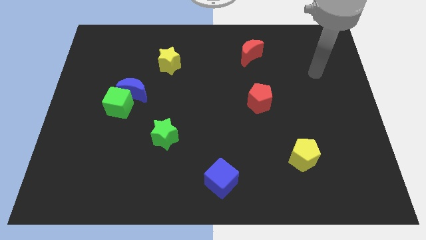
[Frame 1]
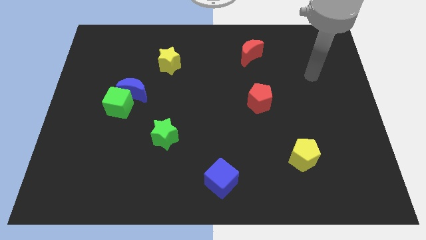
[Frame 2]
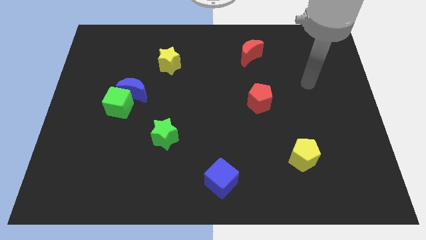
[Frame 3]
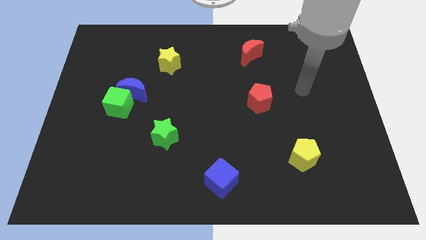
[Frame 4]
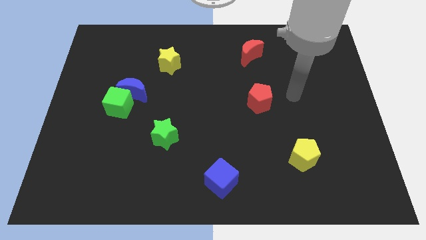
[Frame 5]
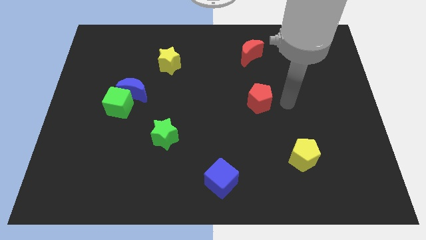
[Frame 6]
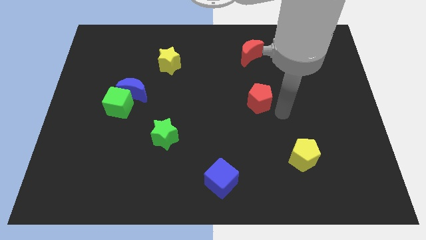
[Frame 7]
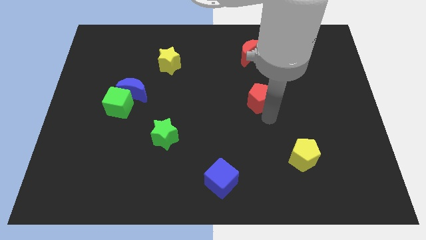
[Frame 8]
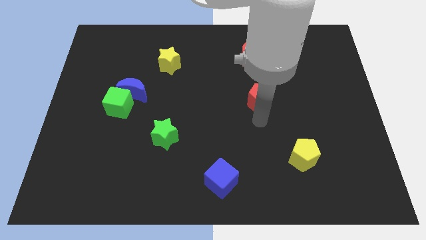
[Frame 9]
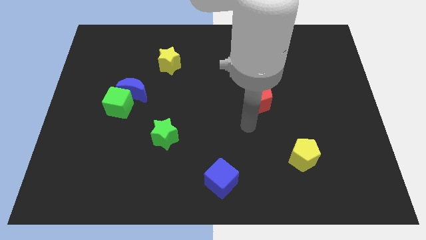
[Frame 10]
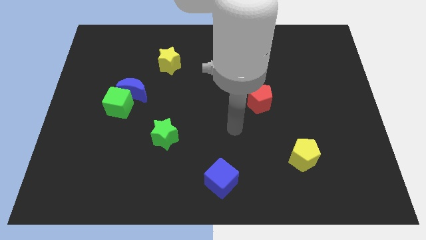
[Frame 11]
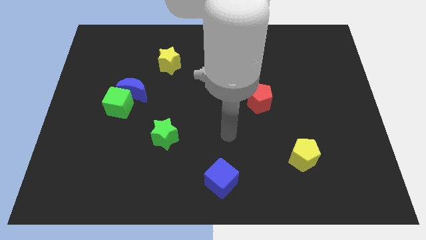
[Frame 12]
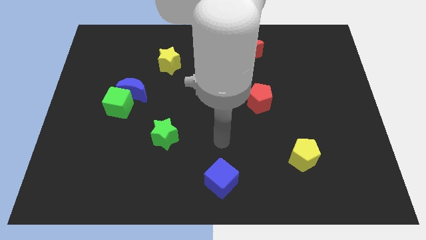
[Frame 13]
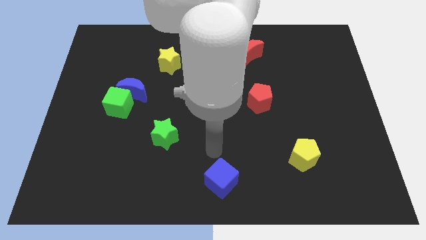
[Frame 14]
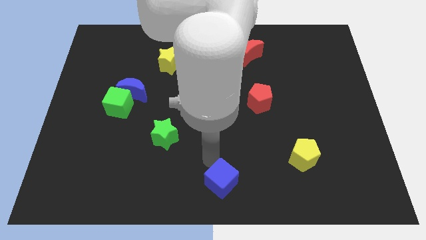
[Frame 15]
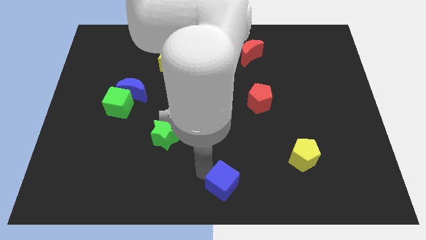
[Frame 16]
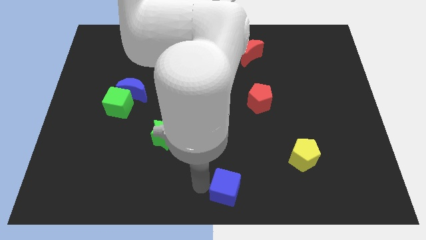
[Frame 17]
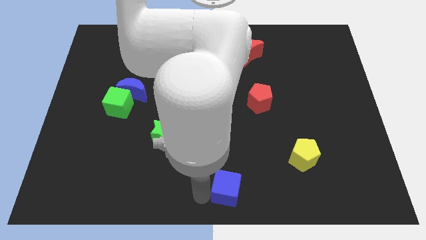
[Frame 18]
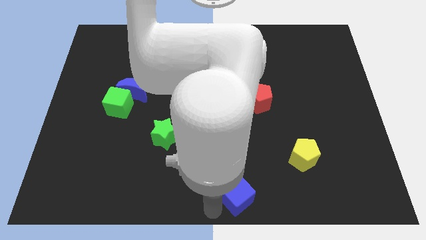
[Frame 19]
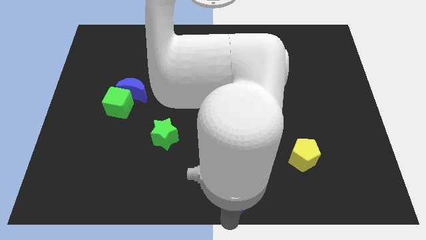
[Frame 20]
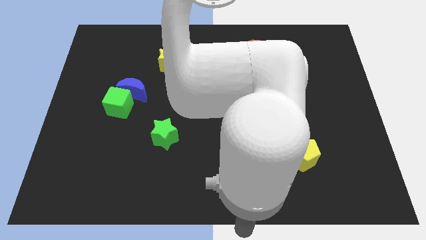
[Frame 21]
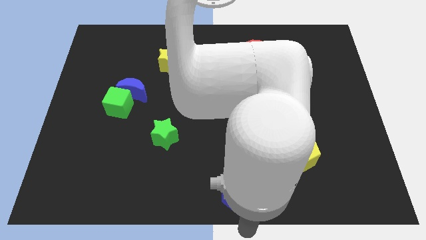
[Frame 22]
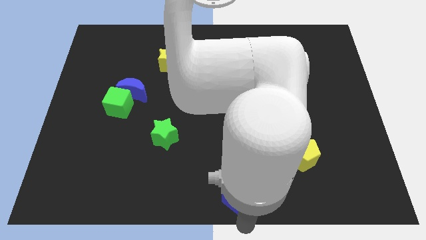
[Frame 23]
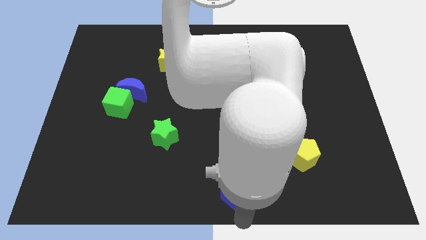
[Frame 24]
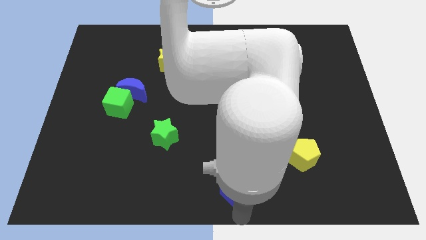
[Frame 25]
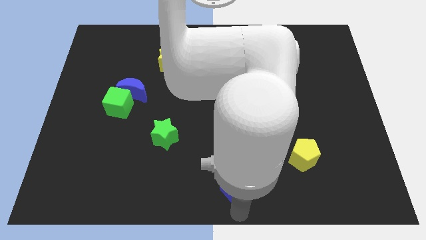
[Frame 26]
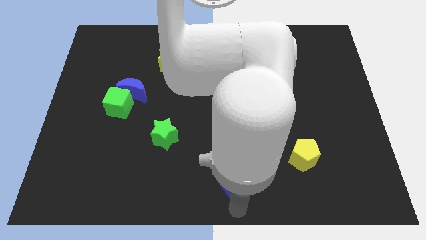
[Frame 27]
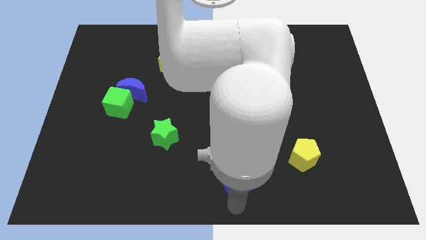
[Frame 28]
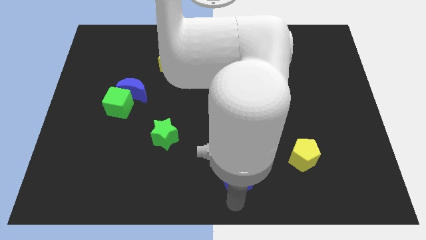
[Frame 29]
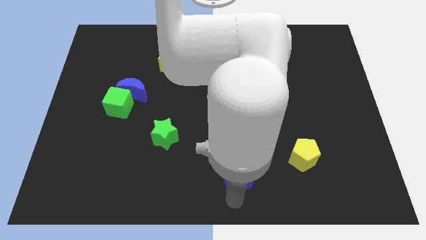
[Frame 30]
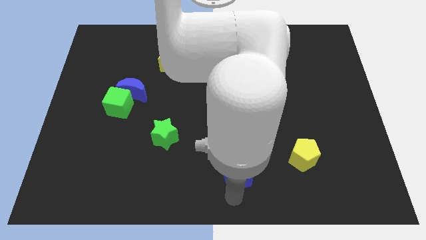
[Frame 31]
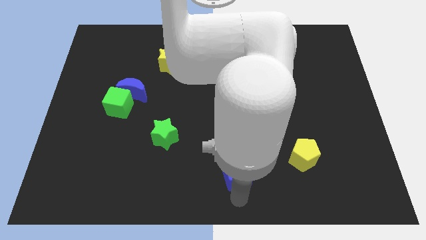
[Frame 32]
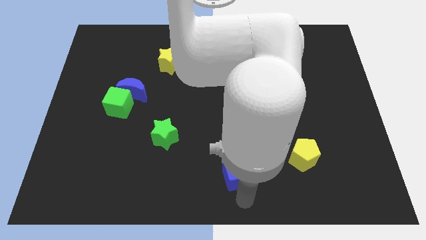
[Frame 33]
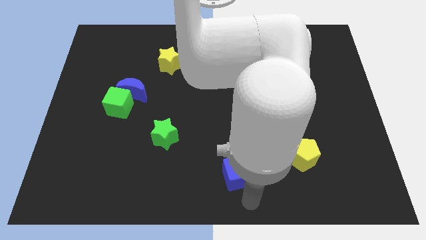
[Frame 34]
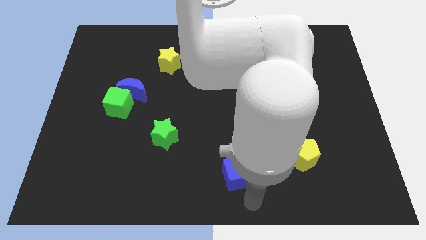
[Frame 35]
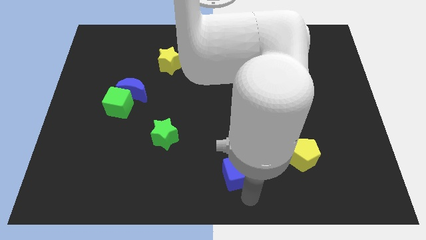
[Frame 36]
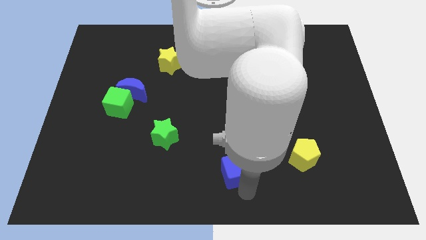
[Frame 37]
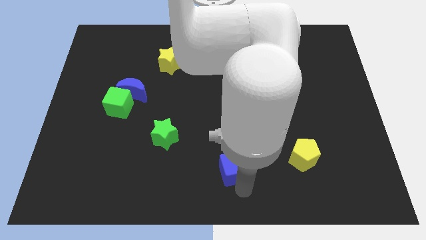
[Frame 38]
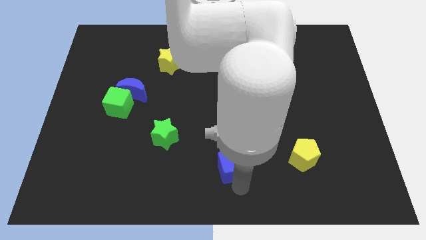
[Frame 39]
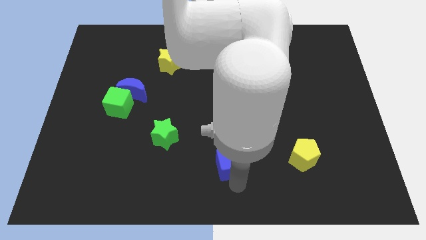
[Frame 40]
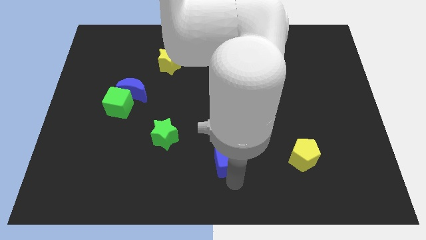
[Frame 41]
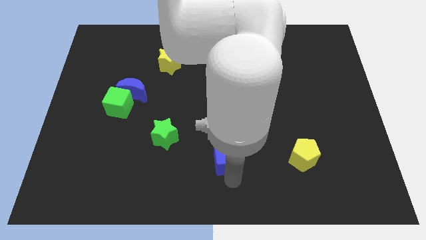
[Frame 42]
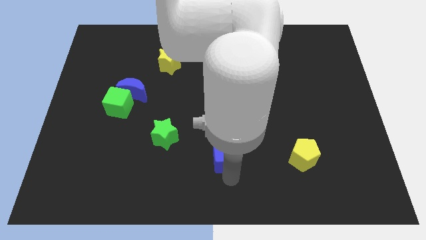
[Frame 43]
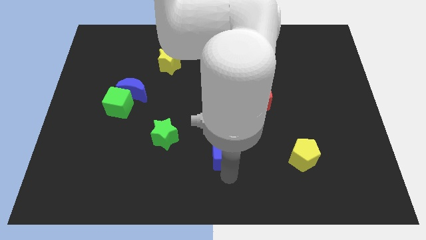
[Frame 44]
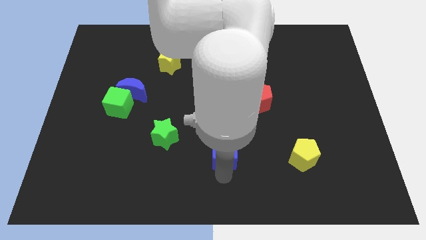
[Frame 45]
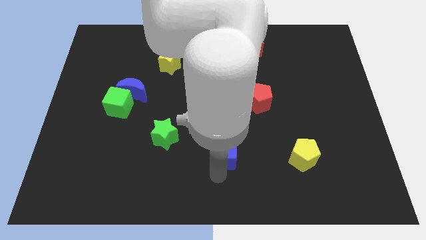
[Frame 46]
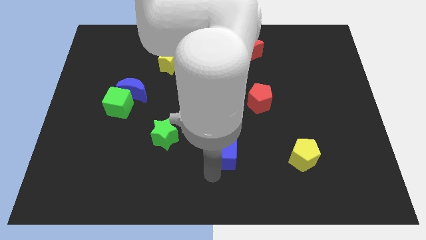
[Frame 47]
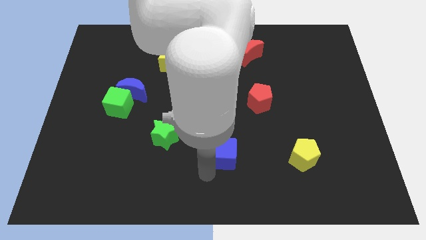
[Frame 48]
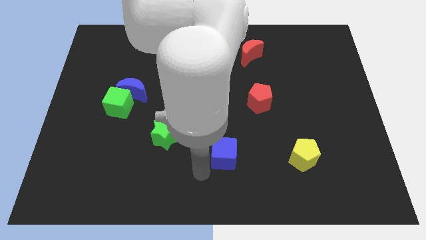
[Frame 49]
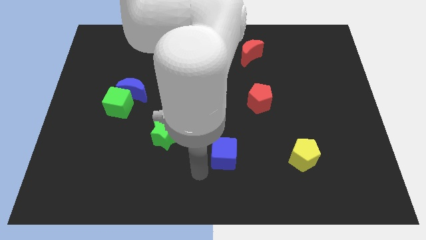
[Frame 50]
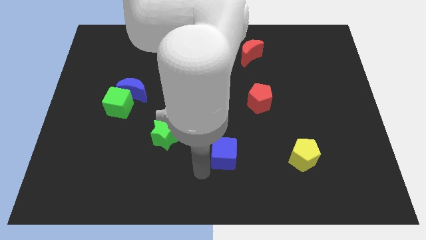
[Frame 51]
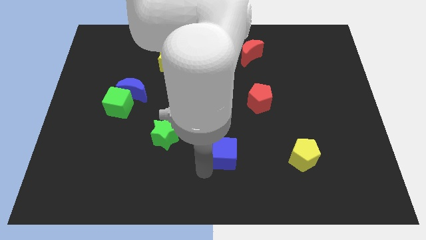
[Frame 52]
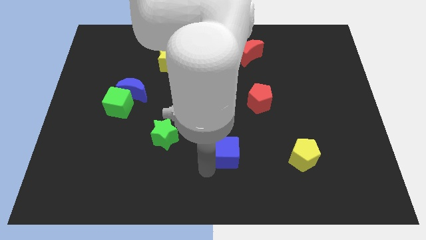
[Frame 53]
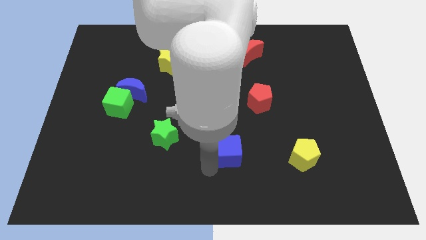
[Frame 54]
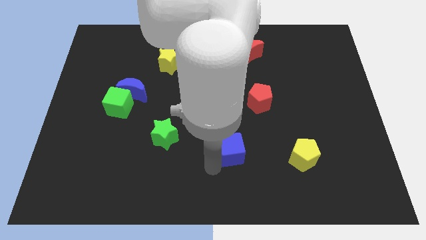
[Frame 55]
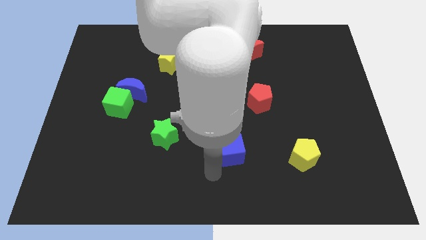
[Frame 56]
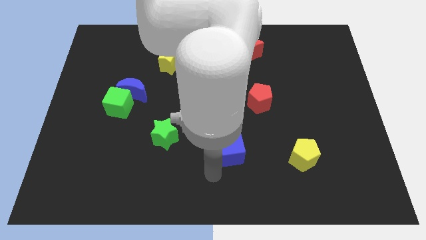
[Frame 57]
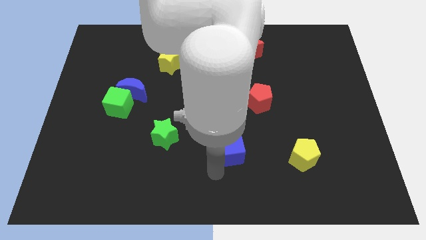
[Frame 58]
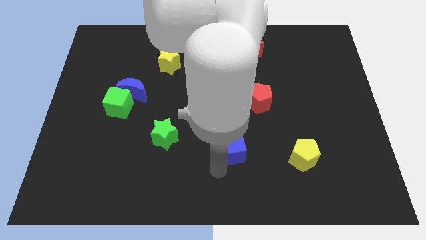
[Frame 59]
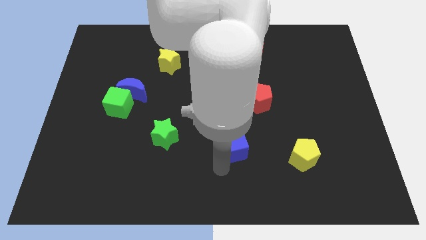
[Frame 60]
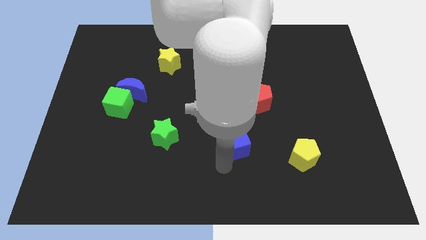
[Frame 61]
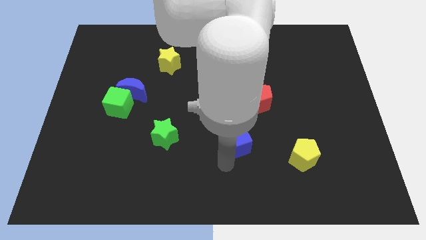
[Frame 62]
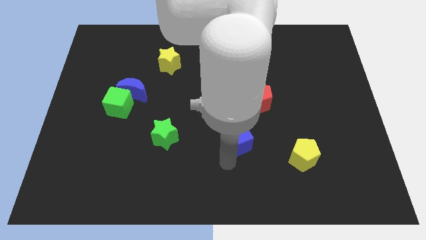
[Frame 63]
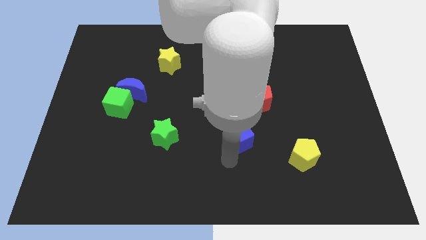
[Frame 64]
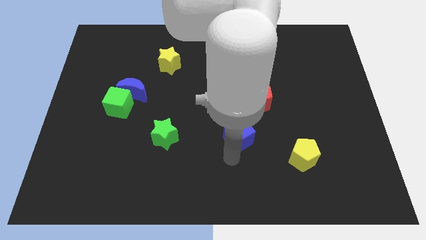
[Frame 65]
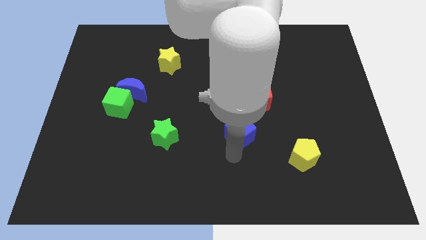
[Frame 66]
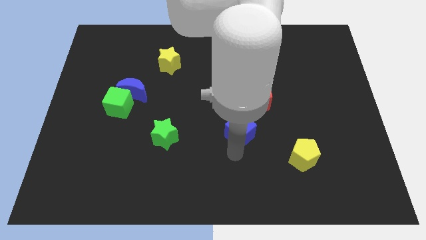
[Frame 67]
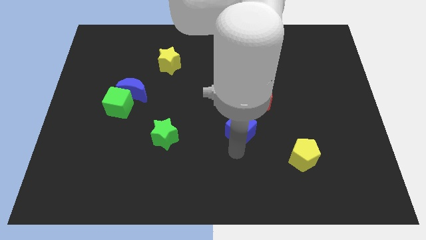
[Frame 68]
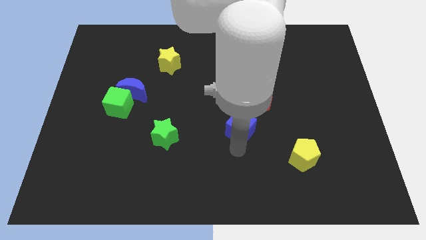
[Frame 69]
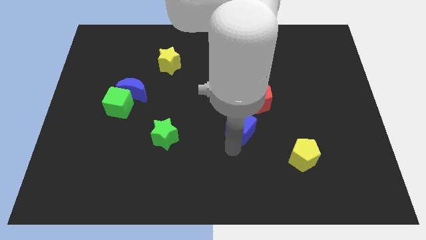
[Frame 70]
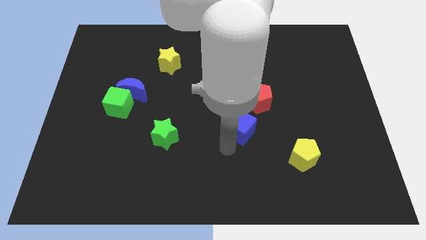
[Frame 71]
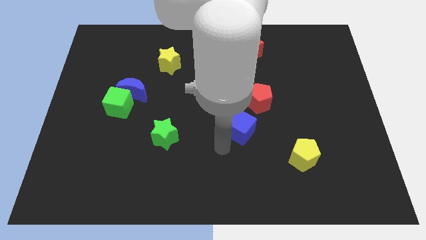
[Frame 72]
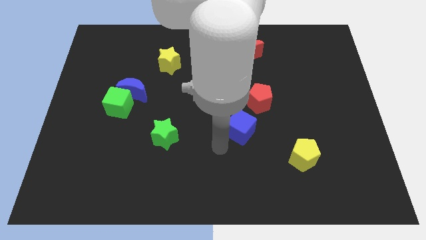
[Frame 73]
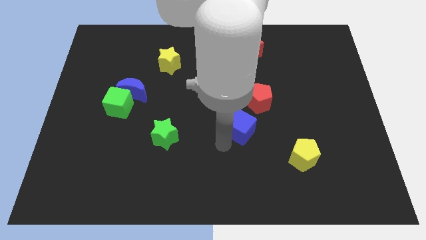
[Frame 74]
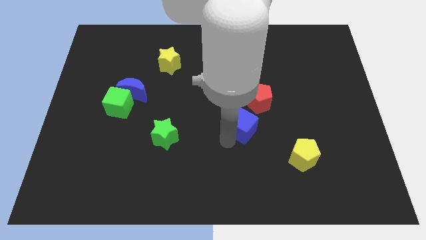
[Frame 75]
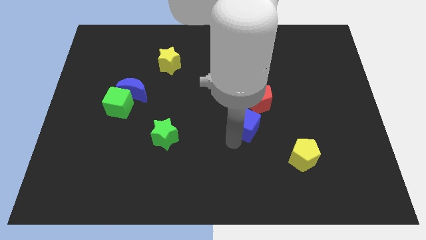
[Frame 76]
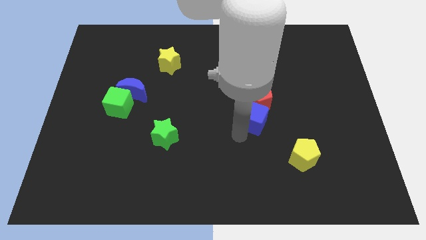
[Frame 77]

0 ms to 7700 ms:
move the blue cube to the red pentagon
